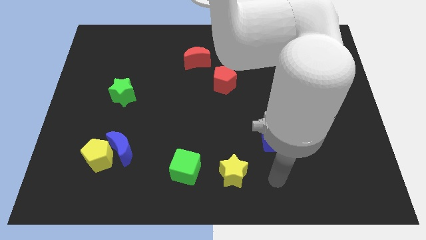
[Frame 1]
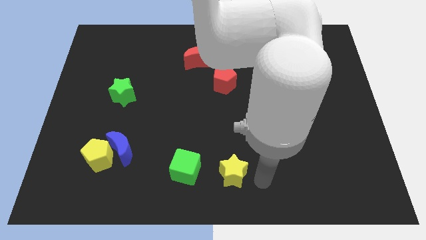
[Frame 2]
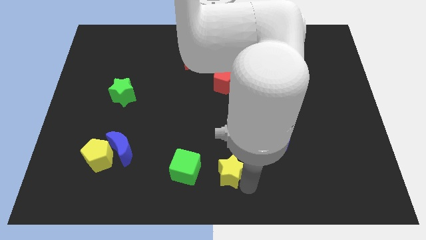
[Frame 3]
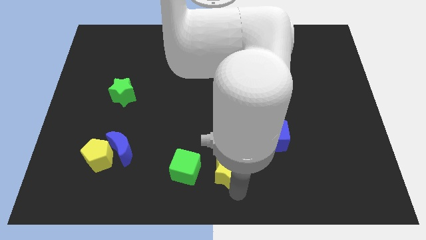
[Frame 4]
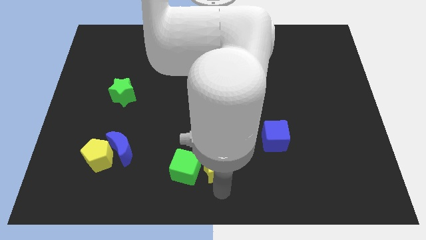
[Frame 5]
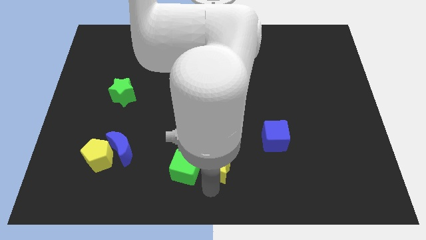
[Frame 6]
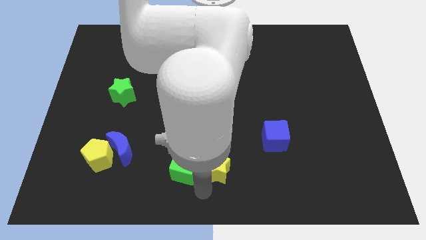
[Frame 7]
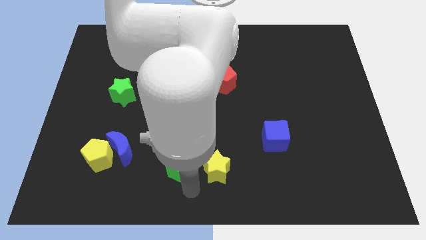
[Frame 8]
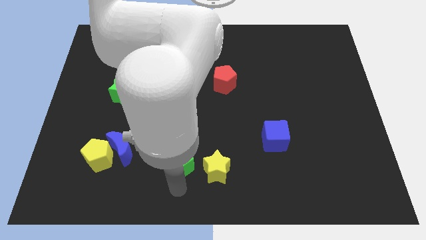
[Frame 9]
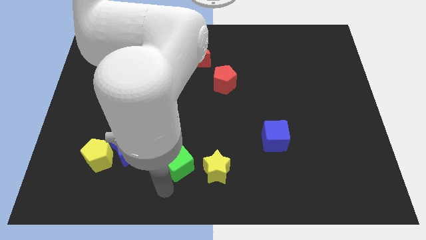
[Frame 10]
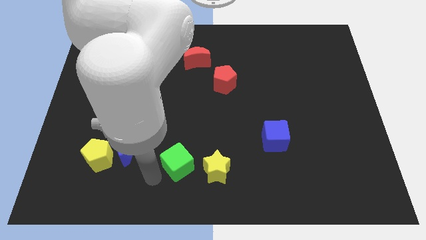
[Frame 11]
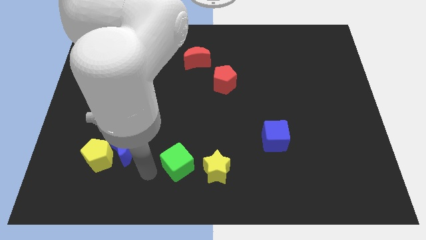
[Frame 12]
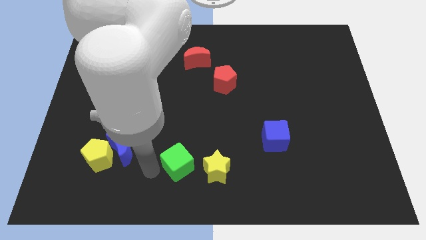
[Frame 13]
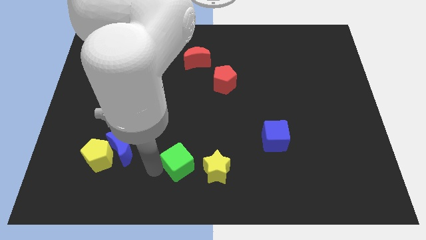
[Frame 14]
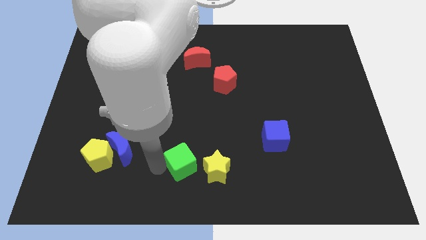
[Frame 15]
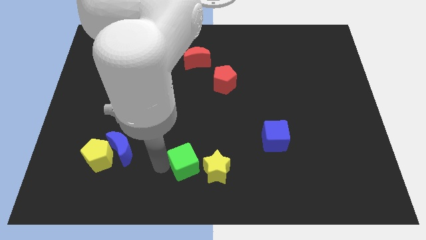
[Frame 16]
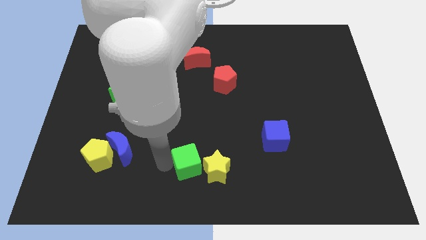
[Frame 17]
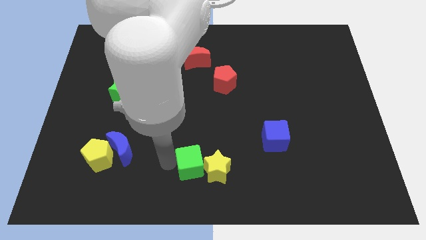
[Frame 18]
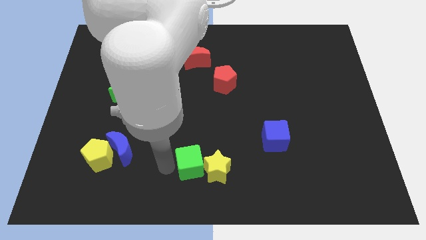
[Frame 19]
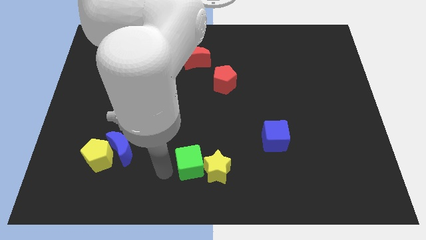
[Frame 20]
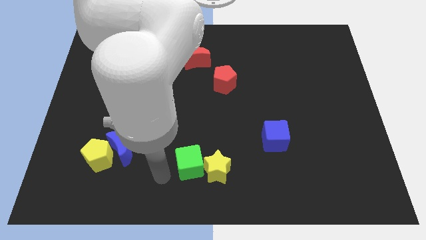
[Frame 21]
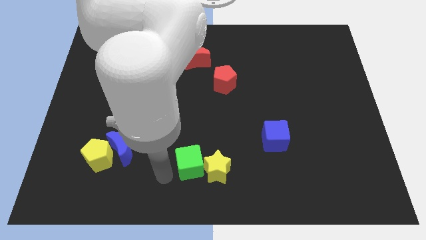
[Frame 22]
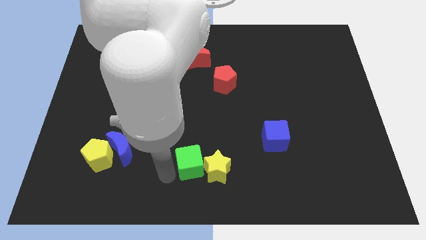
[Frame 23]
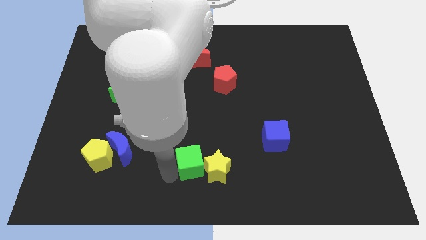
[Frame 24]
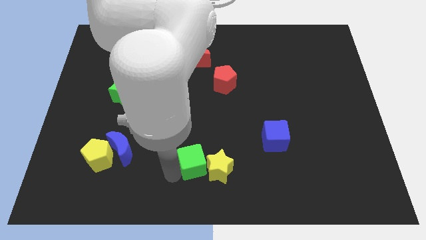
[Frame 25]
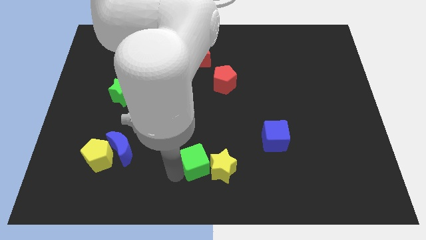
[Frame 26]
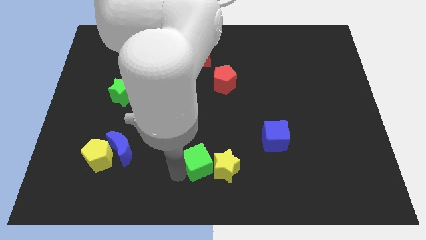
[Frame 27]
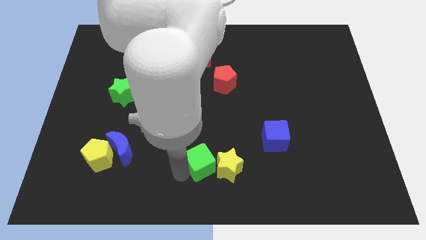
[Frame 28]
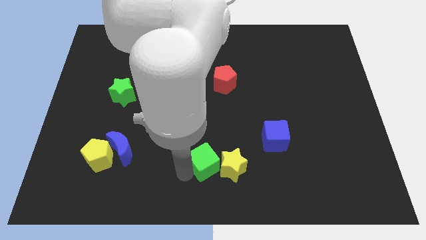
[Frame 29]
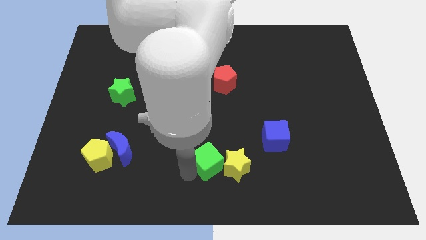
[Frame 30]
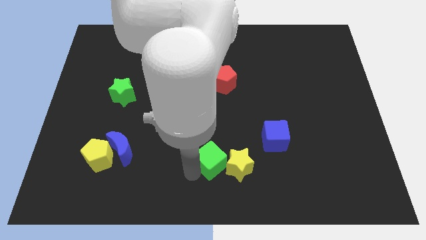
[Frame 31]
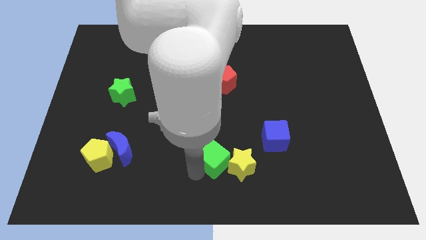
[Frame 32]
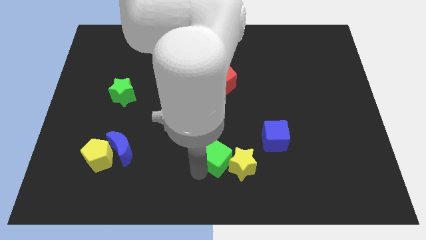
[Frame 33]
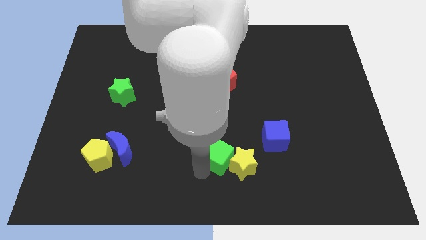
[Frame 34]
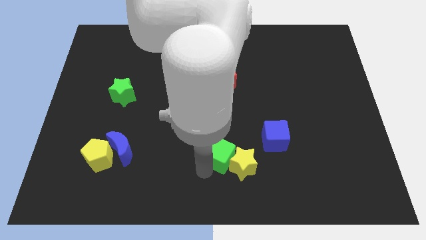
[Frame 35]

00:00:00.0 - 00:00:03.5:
slide the green cube slightly up and to the right

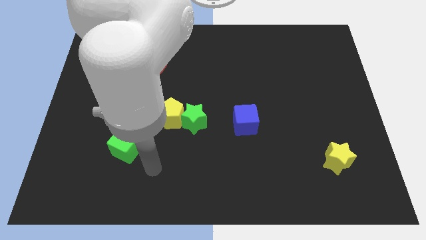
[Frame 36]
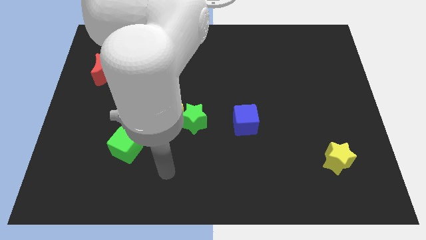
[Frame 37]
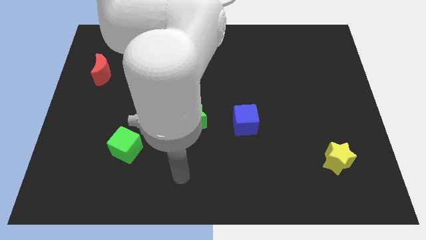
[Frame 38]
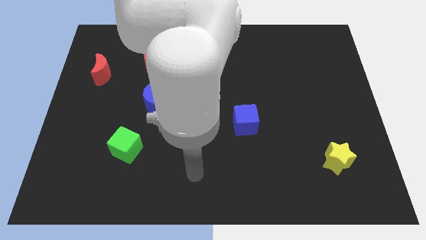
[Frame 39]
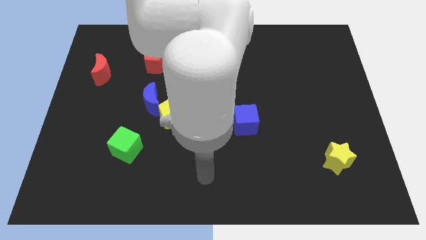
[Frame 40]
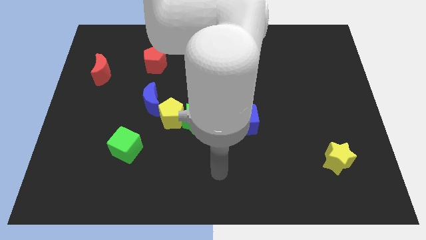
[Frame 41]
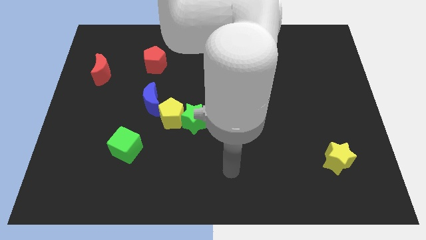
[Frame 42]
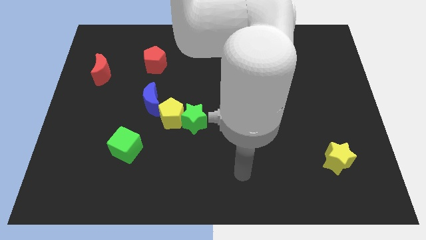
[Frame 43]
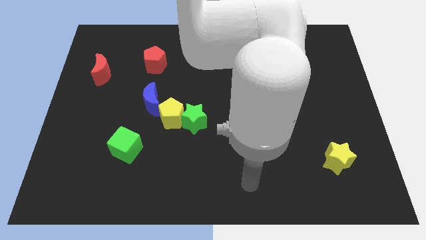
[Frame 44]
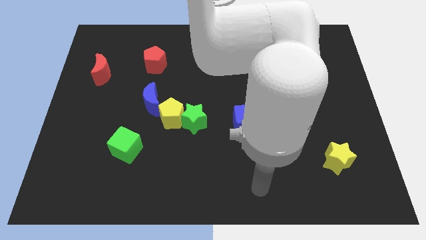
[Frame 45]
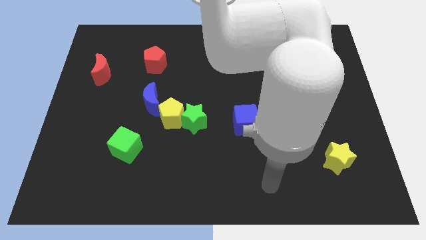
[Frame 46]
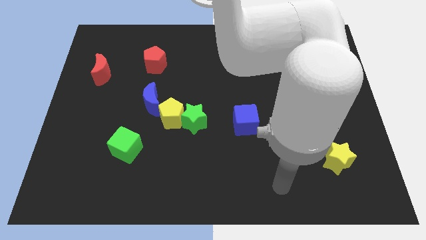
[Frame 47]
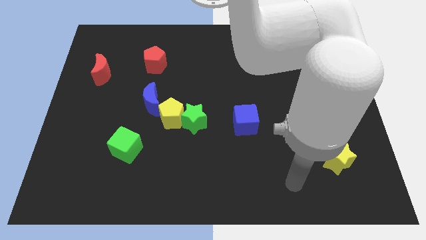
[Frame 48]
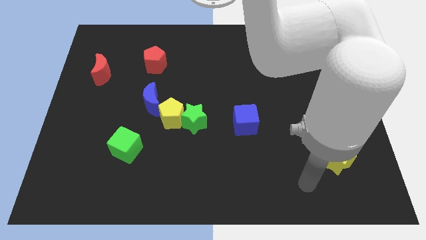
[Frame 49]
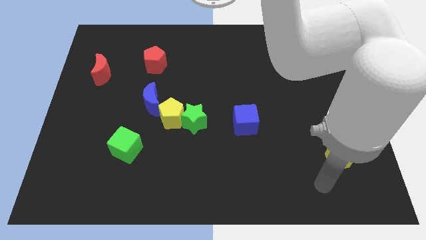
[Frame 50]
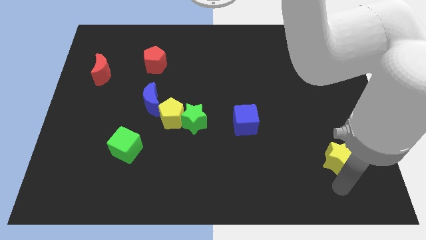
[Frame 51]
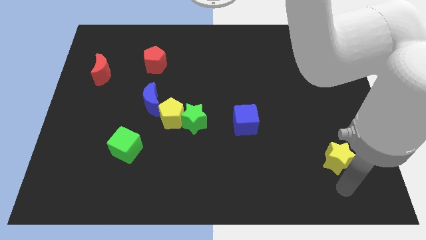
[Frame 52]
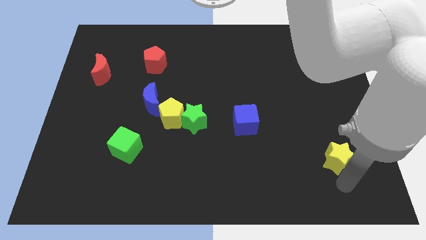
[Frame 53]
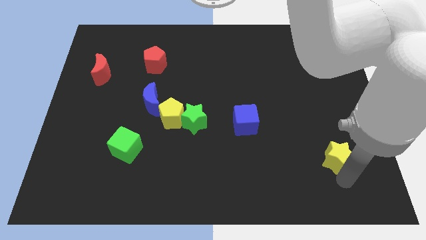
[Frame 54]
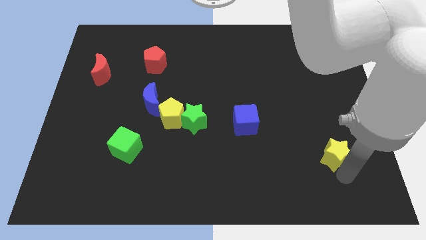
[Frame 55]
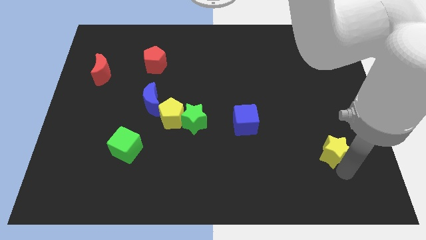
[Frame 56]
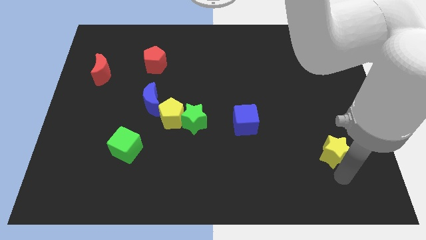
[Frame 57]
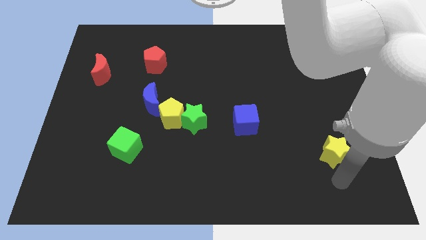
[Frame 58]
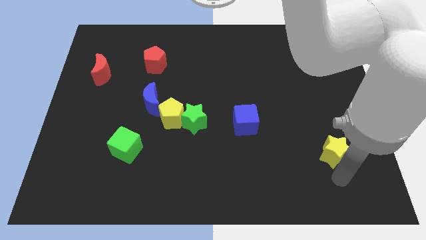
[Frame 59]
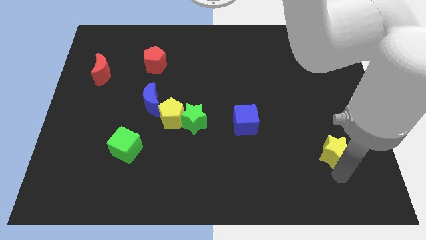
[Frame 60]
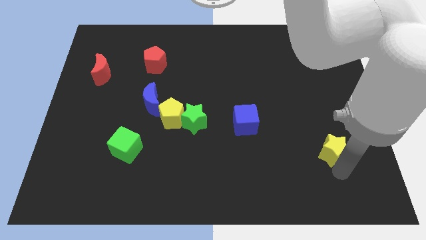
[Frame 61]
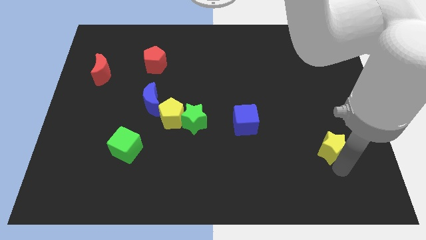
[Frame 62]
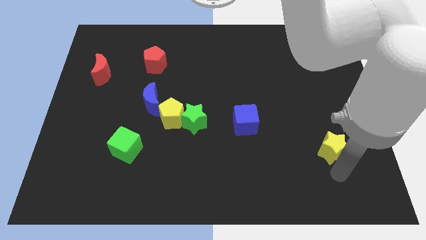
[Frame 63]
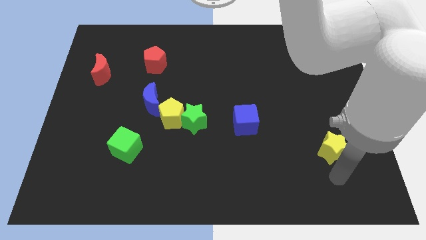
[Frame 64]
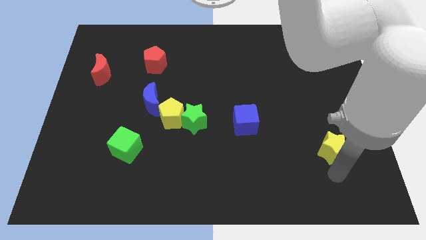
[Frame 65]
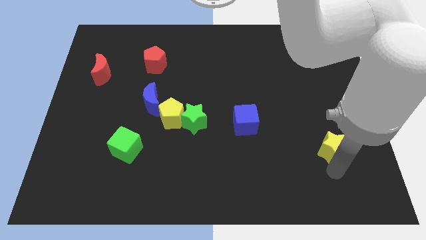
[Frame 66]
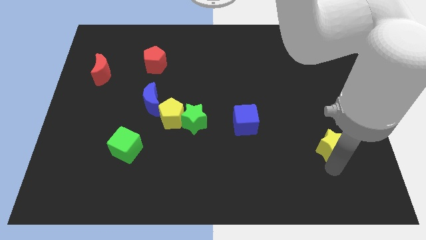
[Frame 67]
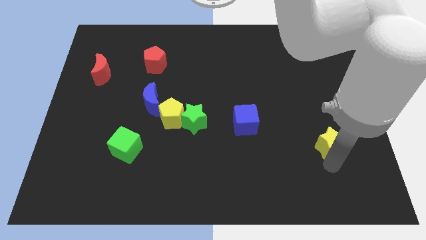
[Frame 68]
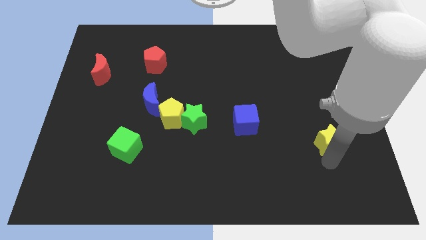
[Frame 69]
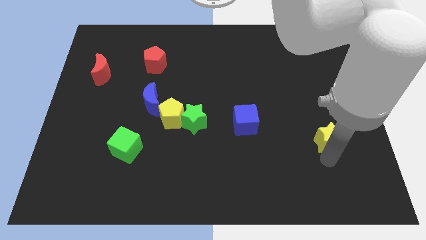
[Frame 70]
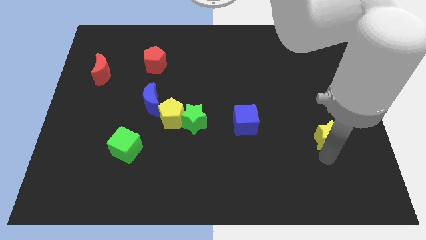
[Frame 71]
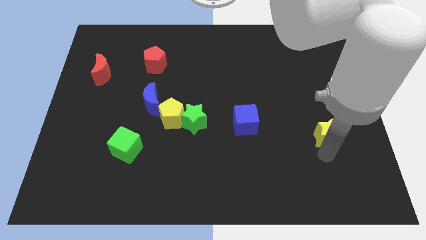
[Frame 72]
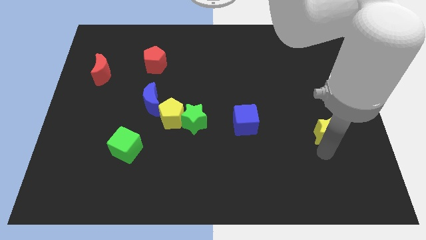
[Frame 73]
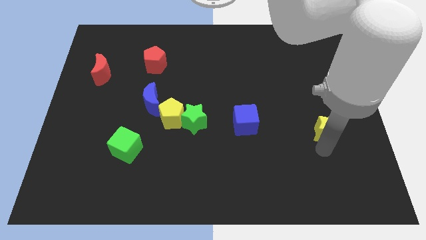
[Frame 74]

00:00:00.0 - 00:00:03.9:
push the yellow star up a bit

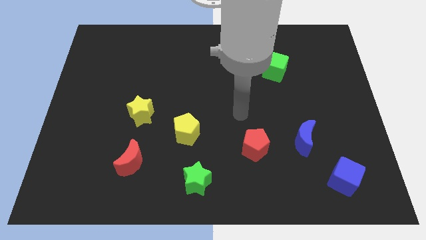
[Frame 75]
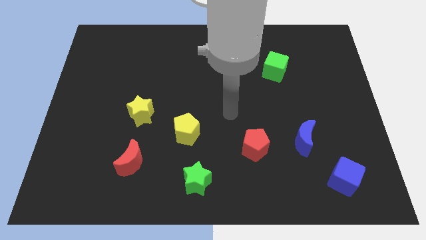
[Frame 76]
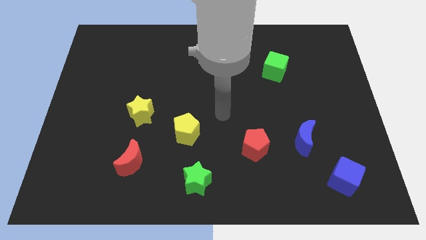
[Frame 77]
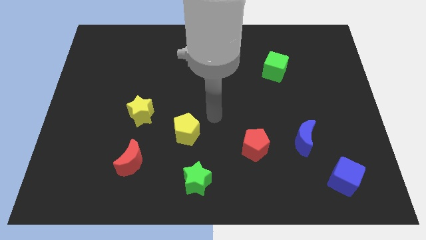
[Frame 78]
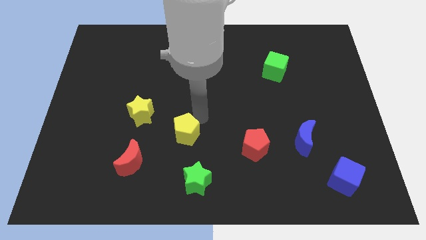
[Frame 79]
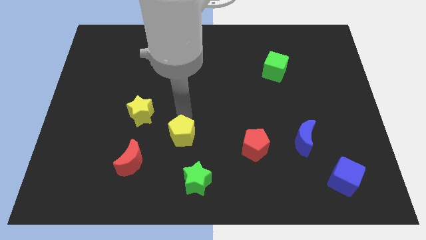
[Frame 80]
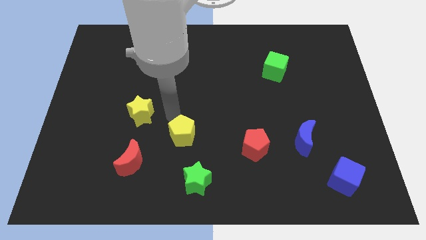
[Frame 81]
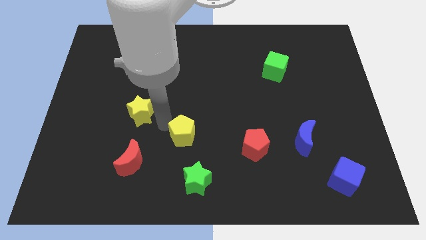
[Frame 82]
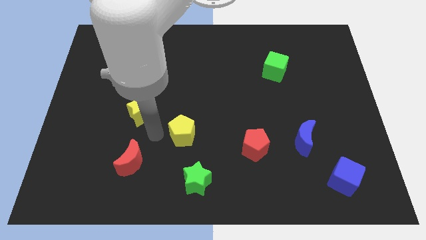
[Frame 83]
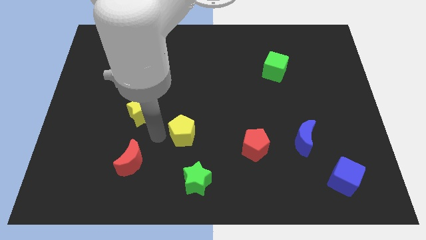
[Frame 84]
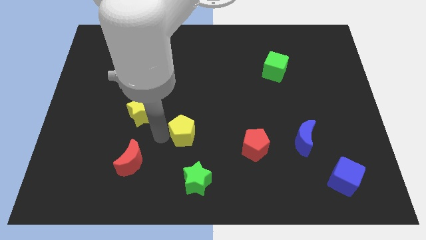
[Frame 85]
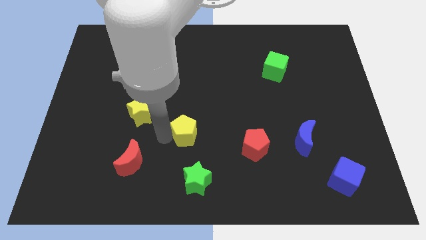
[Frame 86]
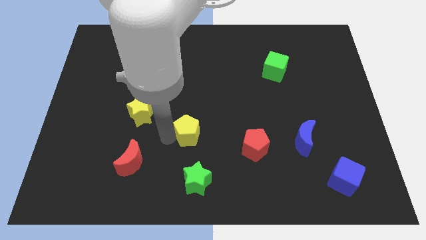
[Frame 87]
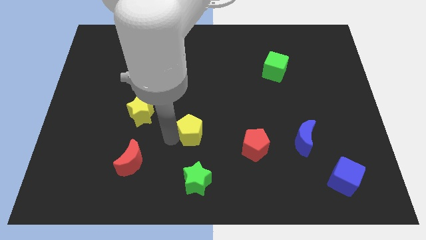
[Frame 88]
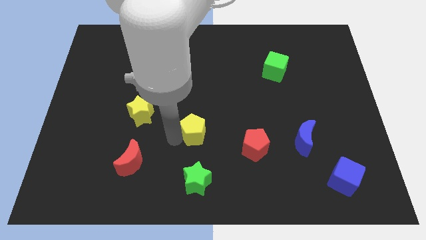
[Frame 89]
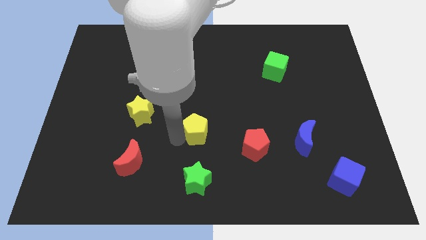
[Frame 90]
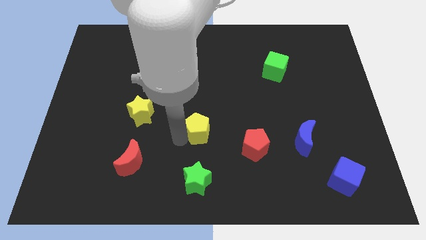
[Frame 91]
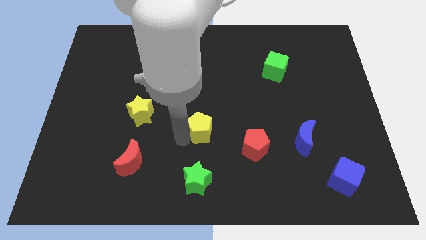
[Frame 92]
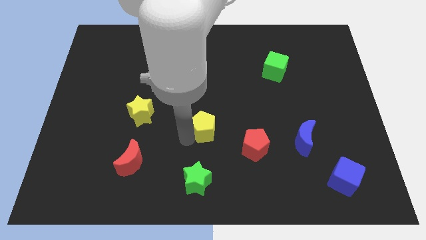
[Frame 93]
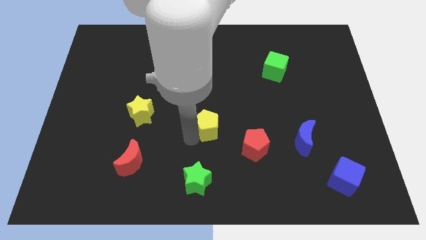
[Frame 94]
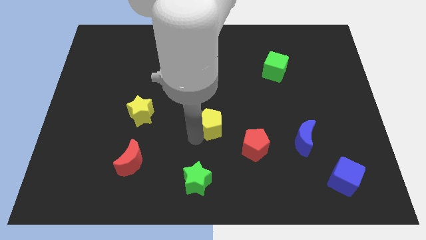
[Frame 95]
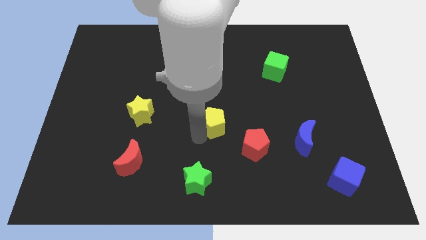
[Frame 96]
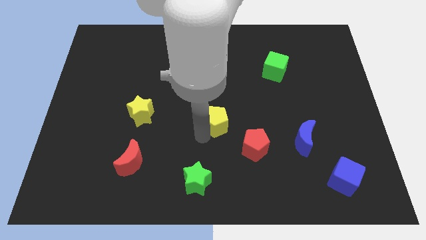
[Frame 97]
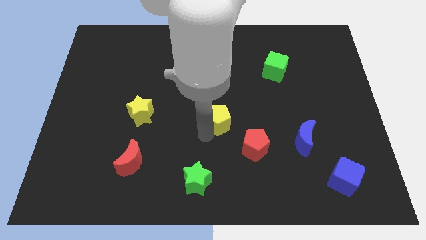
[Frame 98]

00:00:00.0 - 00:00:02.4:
move the yellow pentagon a bit right
